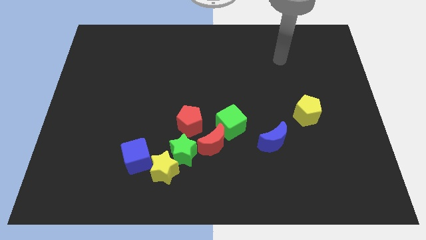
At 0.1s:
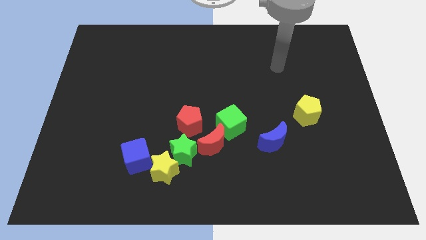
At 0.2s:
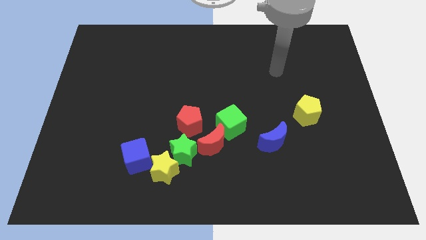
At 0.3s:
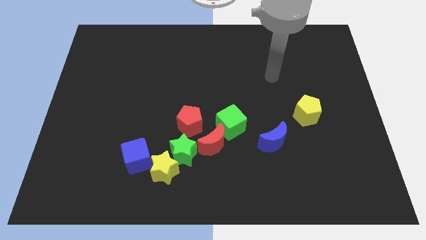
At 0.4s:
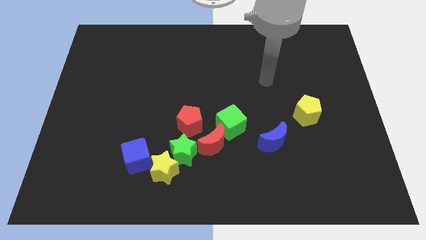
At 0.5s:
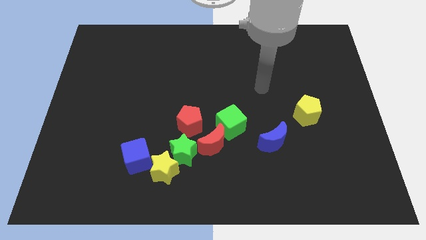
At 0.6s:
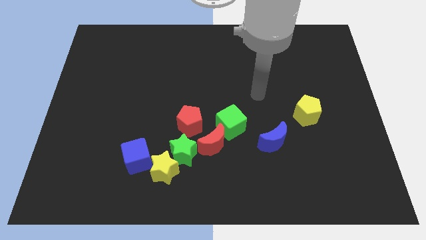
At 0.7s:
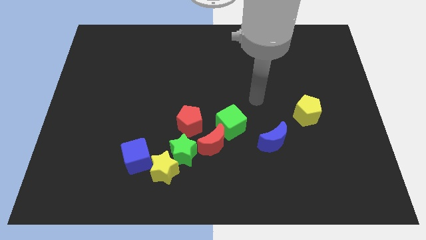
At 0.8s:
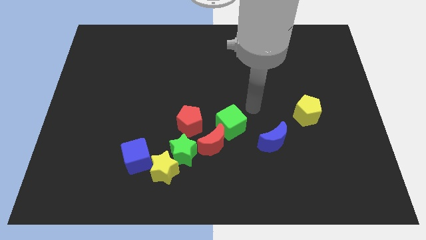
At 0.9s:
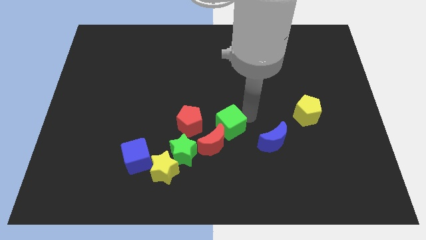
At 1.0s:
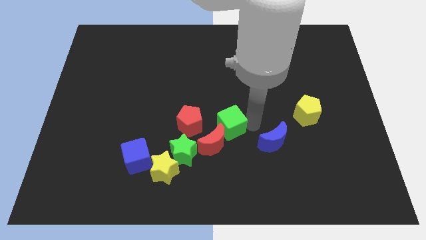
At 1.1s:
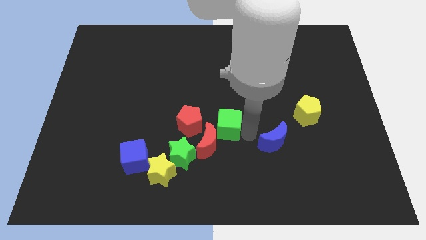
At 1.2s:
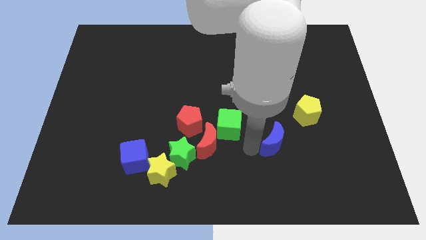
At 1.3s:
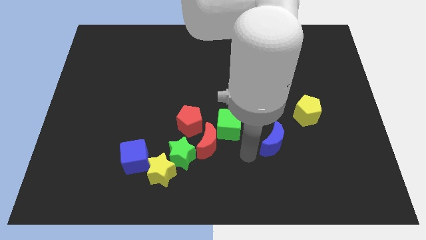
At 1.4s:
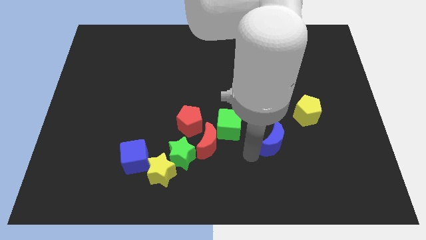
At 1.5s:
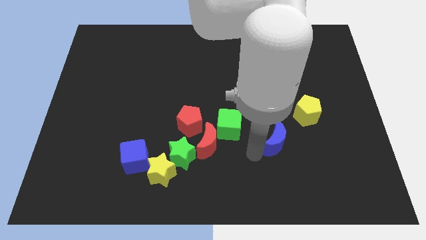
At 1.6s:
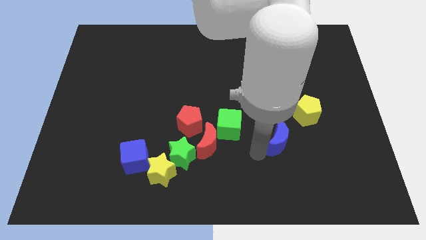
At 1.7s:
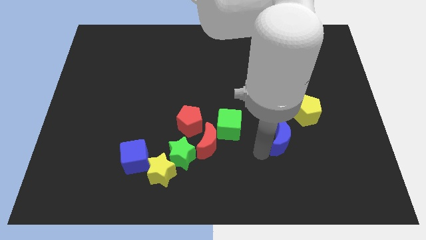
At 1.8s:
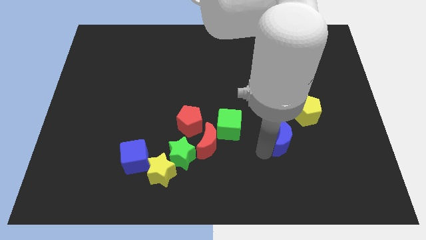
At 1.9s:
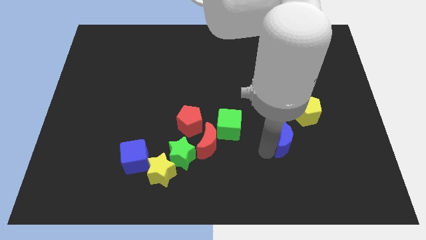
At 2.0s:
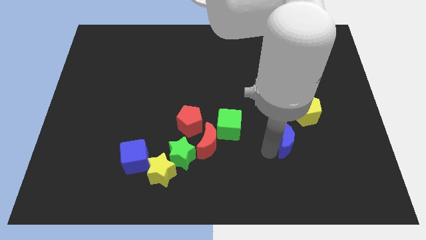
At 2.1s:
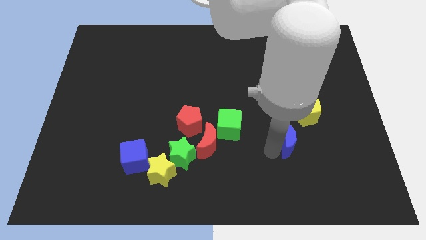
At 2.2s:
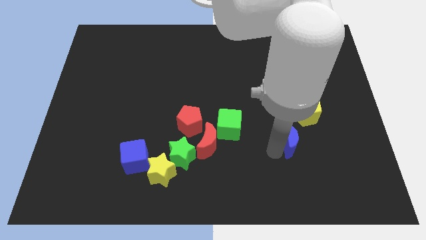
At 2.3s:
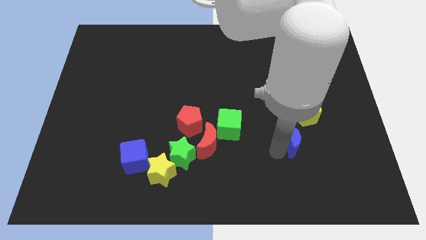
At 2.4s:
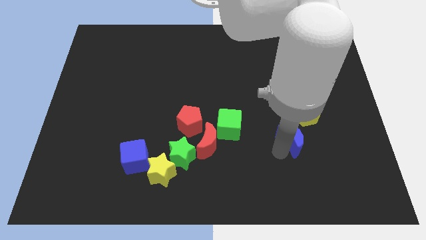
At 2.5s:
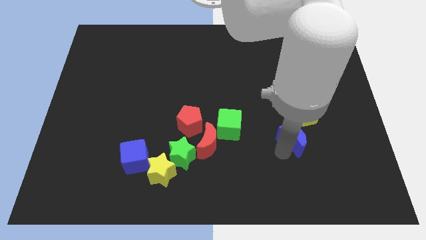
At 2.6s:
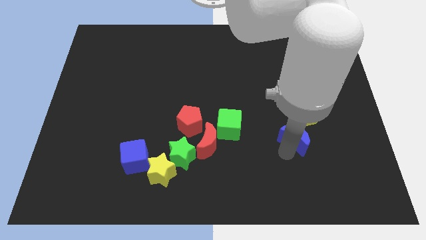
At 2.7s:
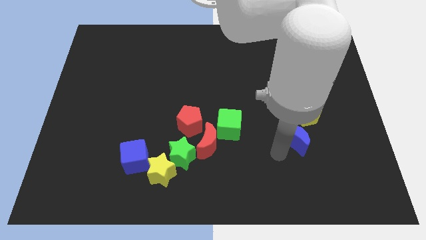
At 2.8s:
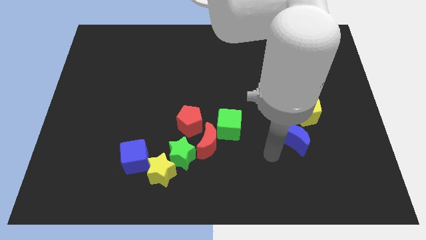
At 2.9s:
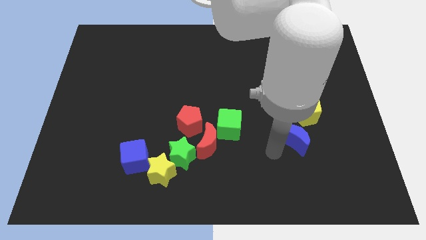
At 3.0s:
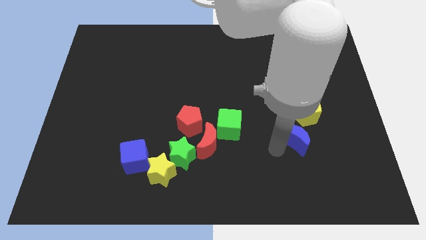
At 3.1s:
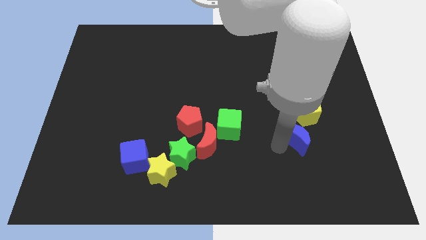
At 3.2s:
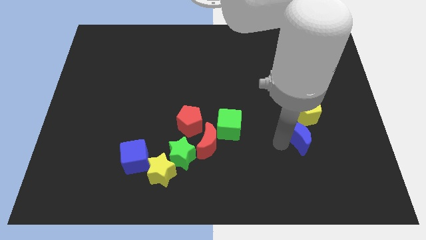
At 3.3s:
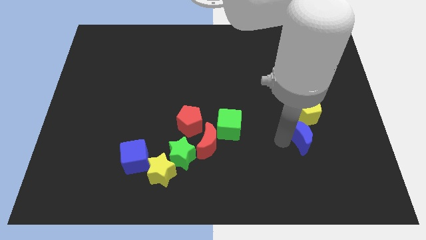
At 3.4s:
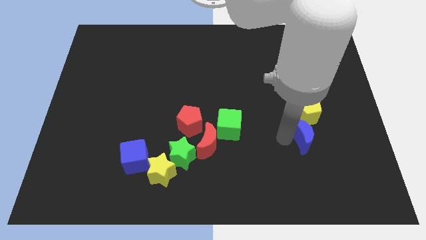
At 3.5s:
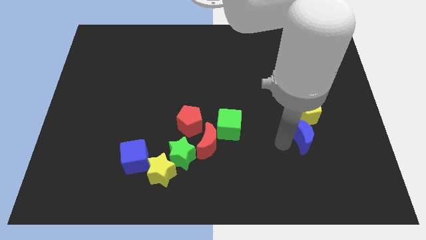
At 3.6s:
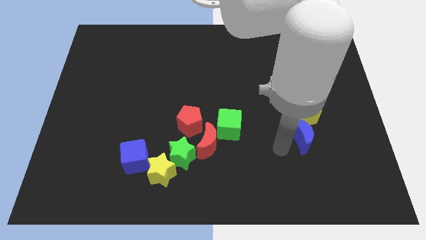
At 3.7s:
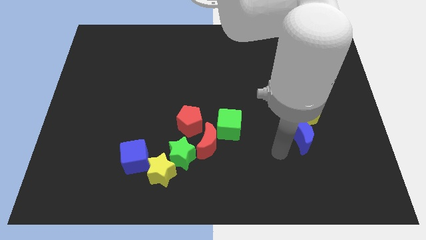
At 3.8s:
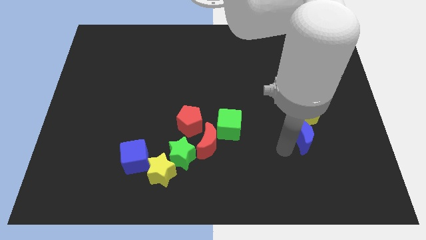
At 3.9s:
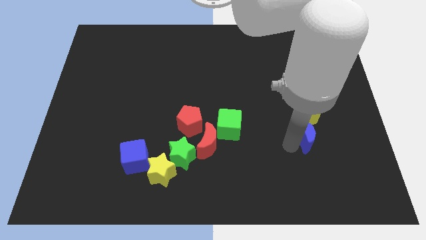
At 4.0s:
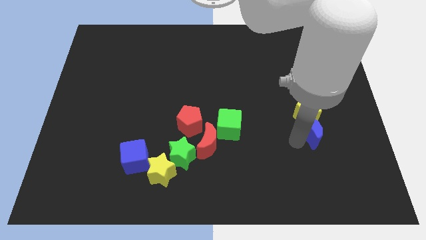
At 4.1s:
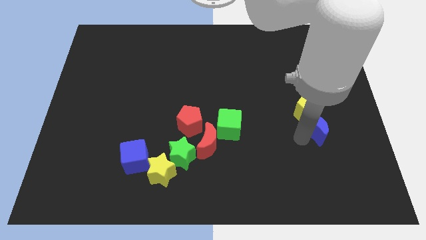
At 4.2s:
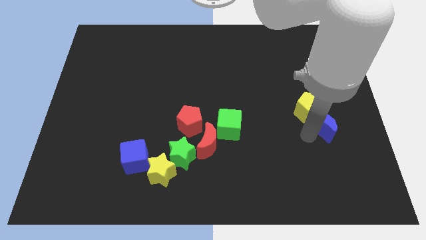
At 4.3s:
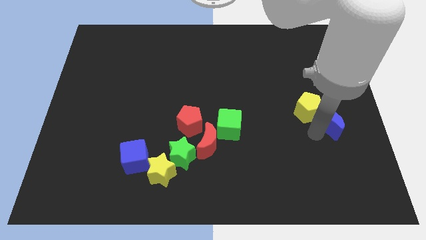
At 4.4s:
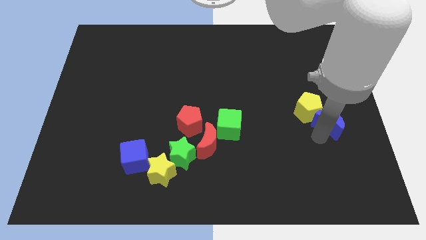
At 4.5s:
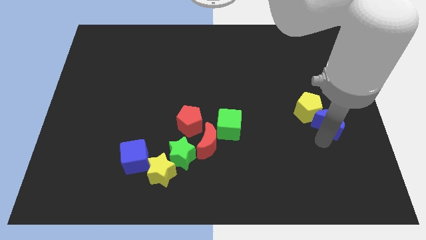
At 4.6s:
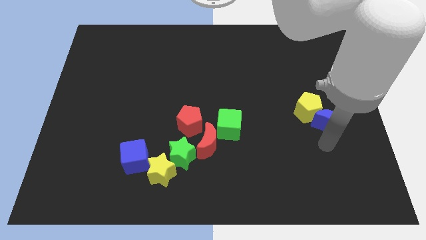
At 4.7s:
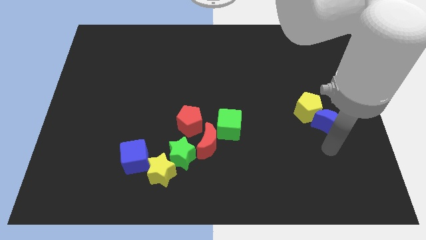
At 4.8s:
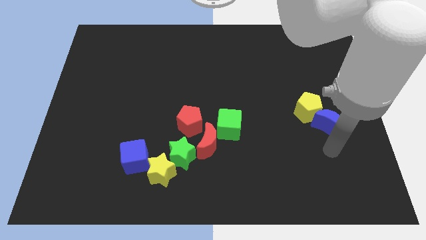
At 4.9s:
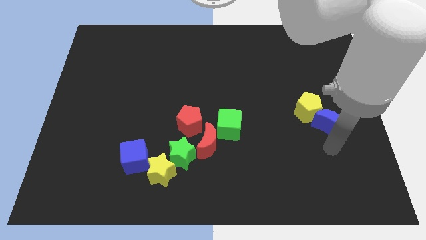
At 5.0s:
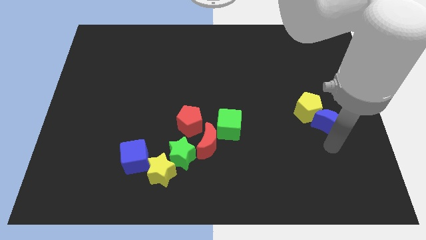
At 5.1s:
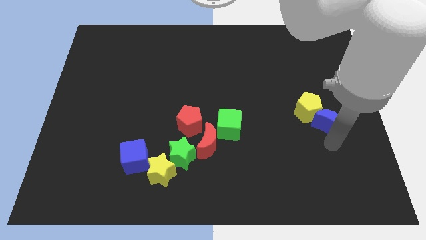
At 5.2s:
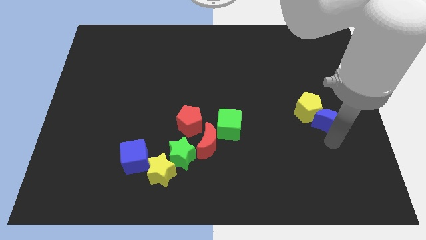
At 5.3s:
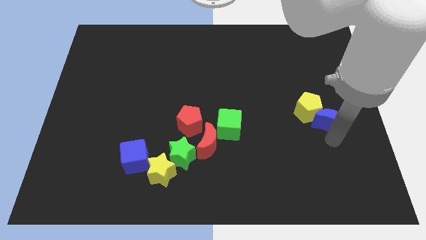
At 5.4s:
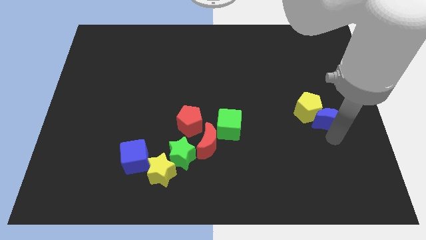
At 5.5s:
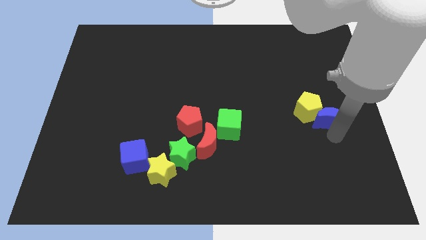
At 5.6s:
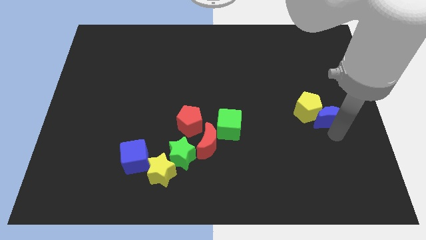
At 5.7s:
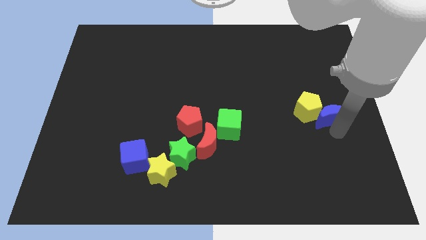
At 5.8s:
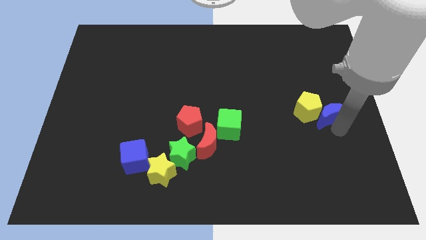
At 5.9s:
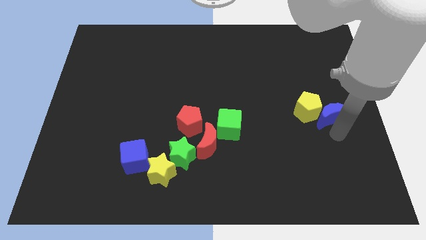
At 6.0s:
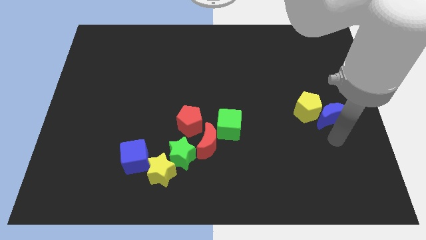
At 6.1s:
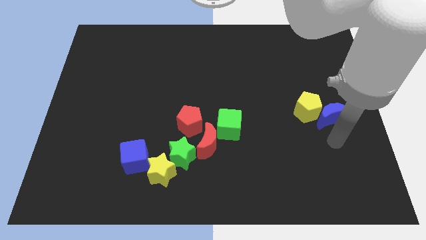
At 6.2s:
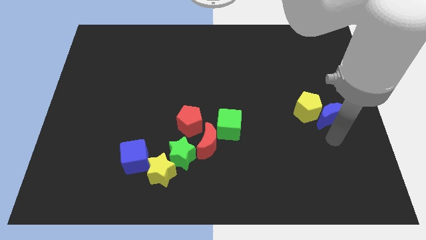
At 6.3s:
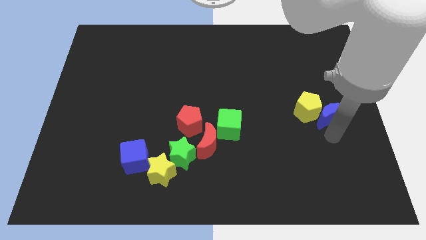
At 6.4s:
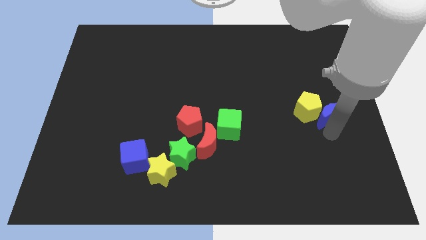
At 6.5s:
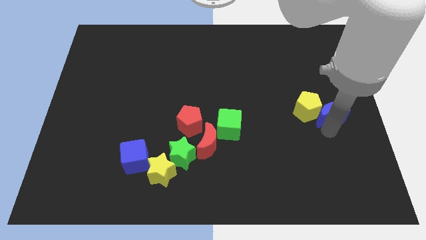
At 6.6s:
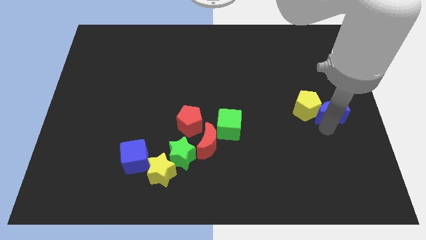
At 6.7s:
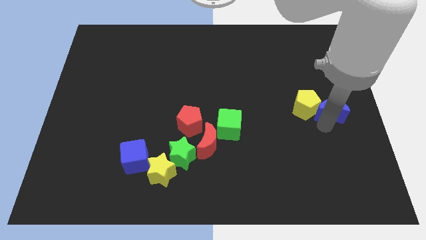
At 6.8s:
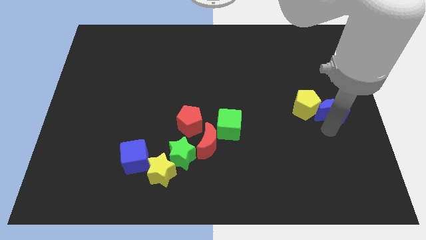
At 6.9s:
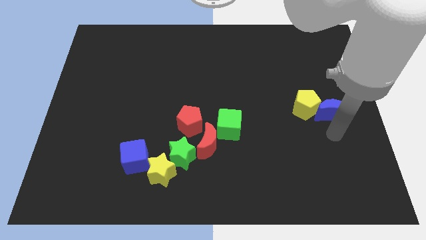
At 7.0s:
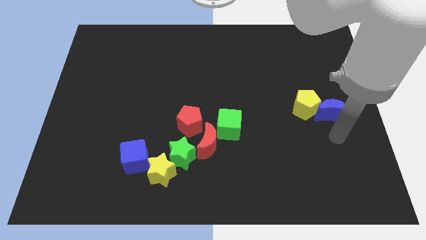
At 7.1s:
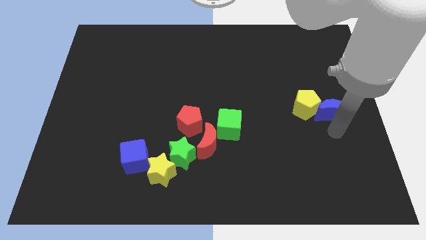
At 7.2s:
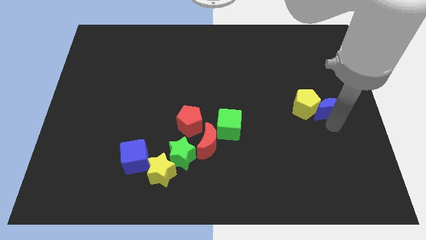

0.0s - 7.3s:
move the blue moon to the top right side of the yellow pentagon
